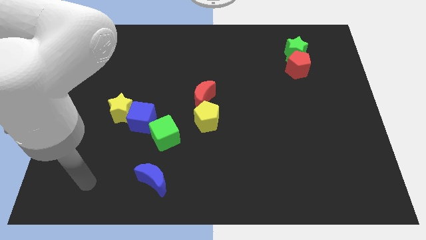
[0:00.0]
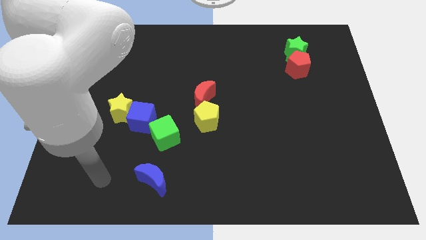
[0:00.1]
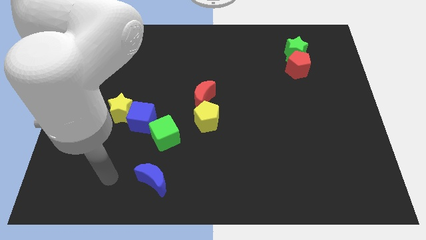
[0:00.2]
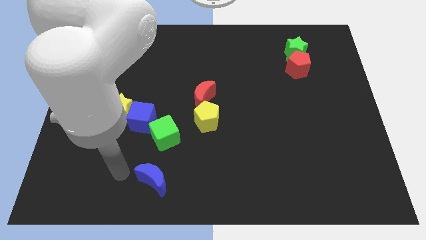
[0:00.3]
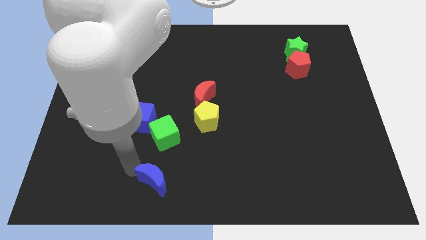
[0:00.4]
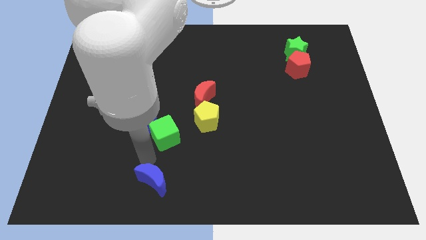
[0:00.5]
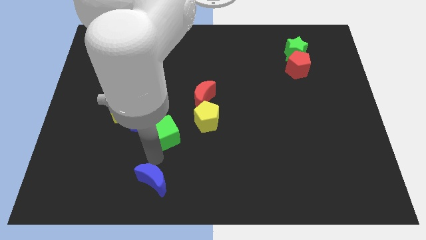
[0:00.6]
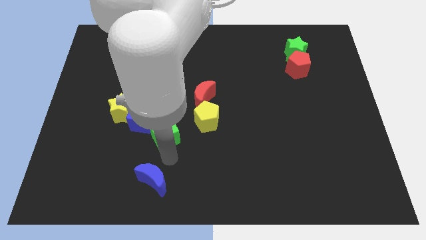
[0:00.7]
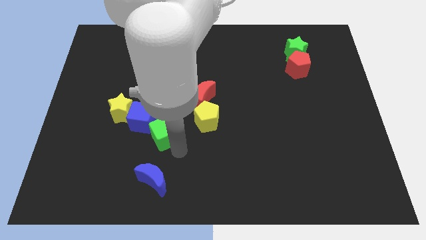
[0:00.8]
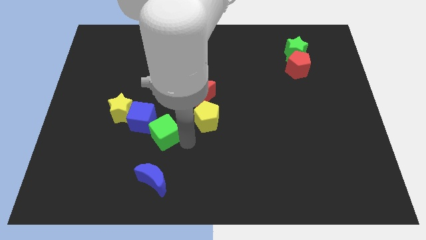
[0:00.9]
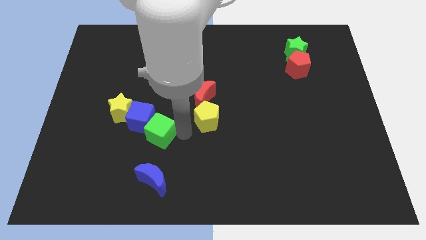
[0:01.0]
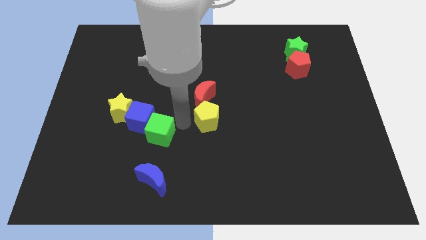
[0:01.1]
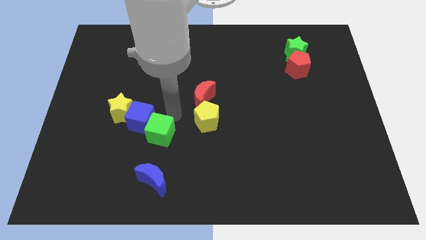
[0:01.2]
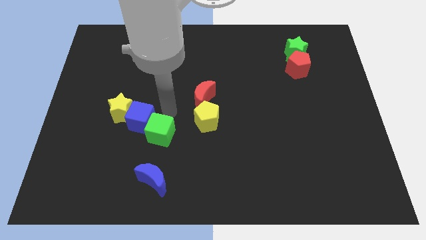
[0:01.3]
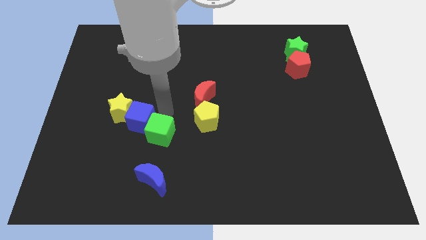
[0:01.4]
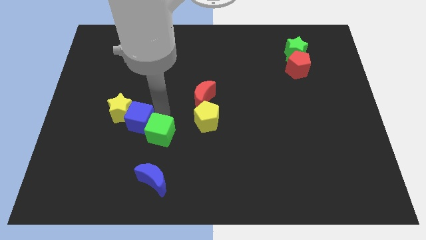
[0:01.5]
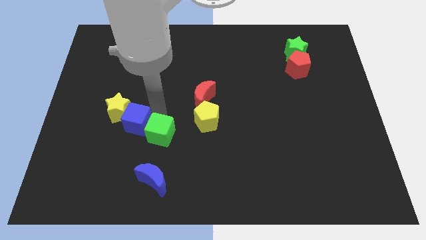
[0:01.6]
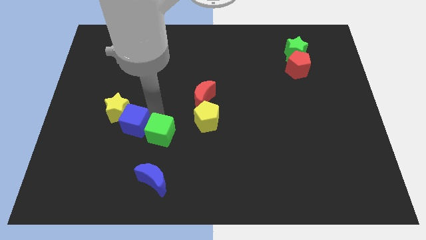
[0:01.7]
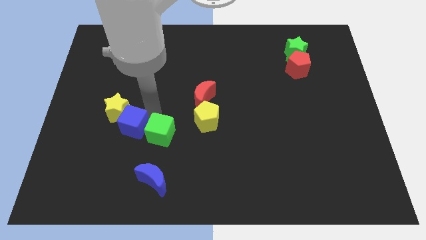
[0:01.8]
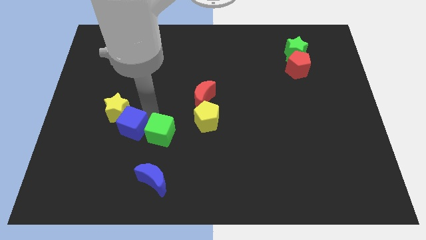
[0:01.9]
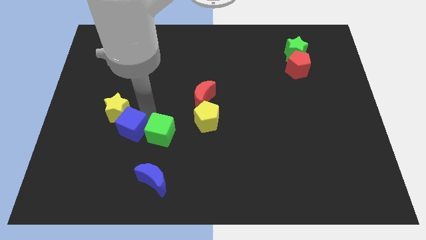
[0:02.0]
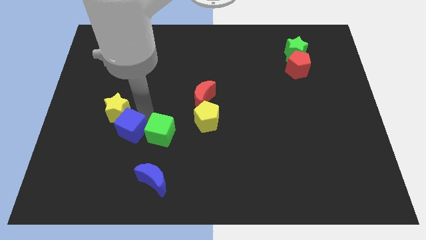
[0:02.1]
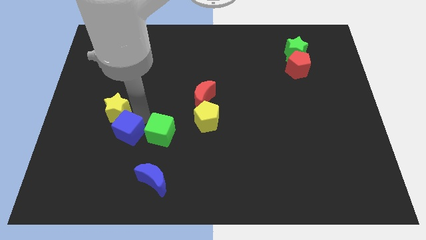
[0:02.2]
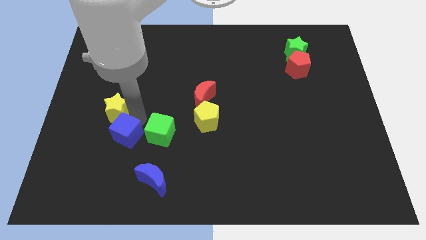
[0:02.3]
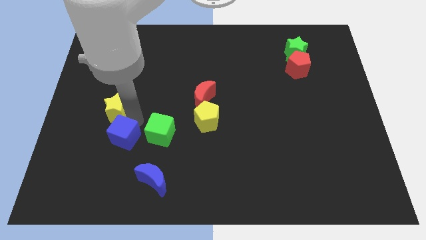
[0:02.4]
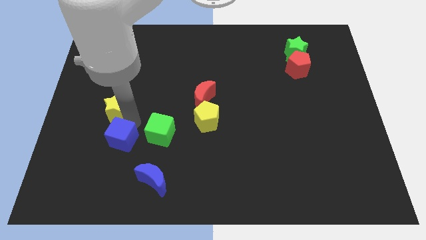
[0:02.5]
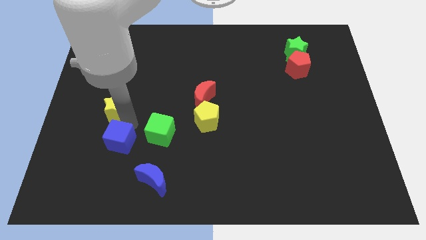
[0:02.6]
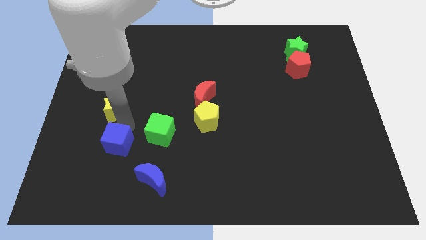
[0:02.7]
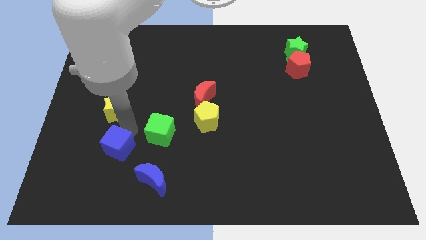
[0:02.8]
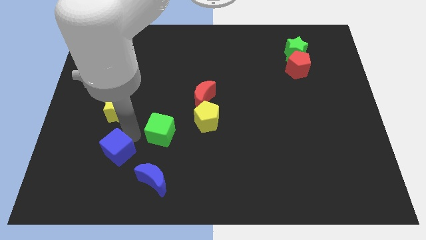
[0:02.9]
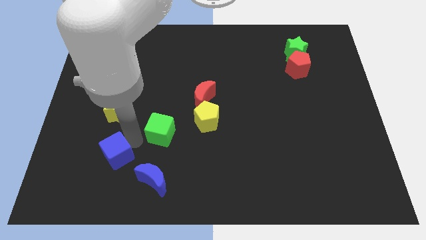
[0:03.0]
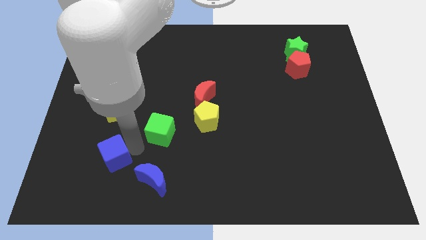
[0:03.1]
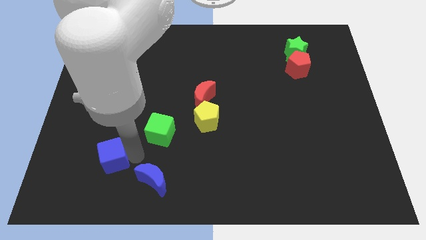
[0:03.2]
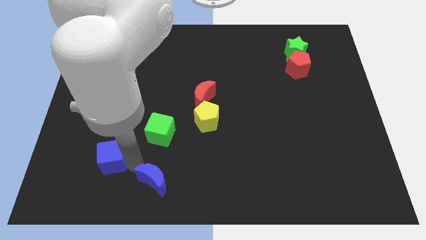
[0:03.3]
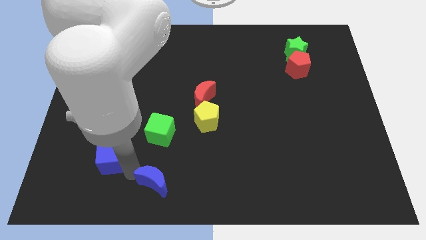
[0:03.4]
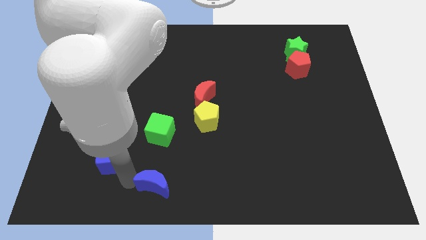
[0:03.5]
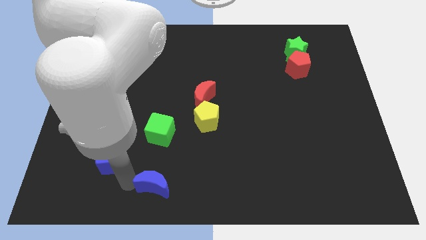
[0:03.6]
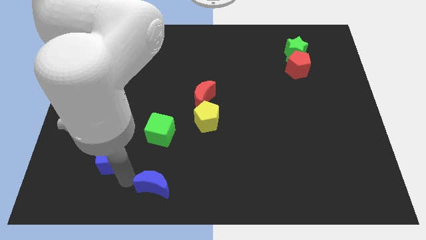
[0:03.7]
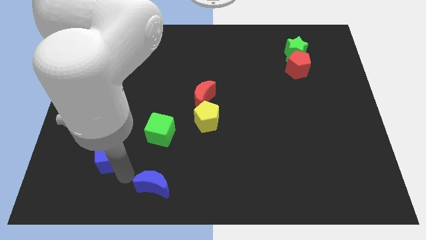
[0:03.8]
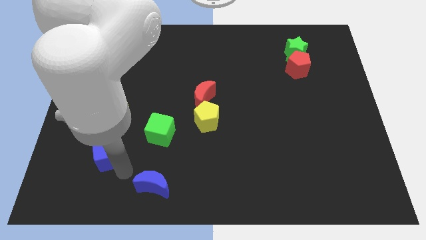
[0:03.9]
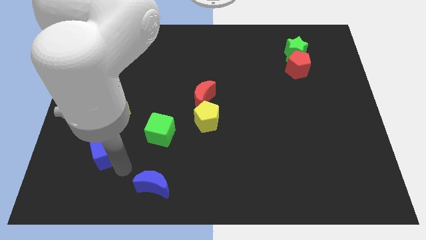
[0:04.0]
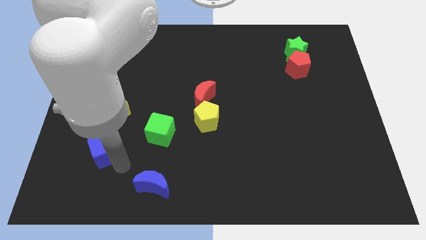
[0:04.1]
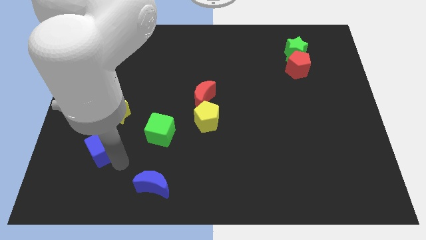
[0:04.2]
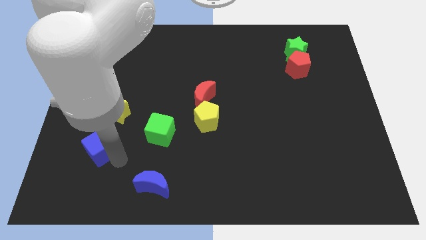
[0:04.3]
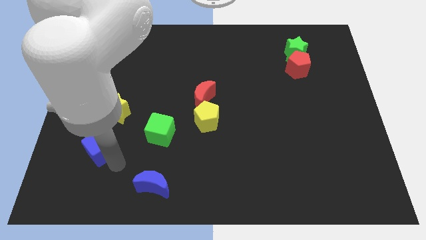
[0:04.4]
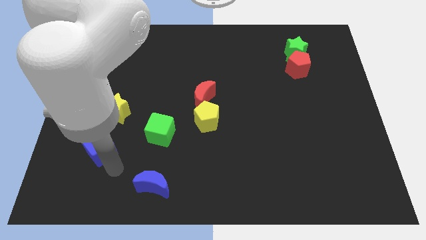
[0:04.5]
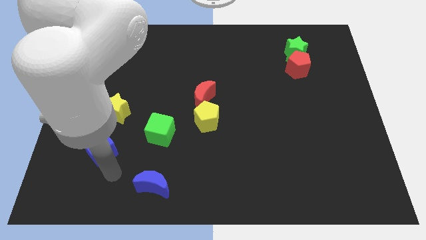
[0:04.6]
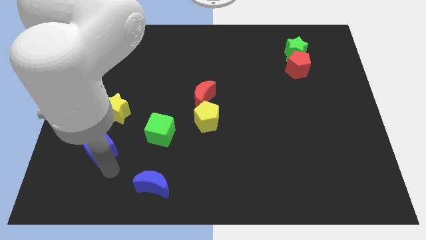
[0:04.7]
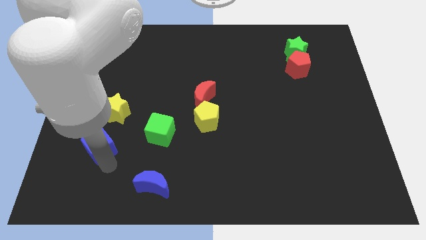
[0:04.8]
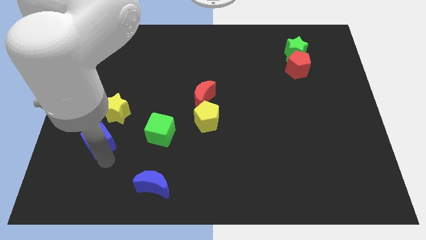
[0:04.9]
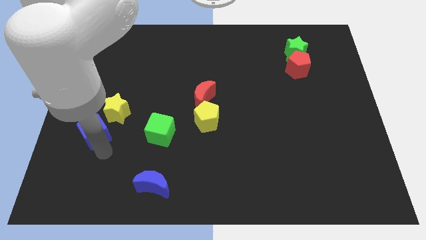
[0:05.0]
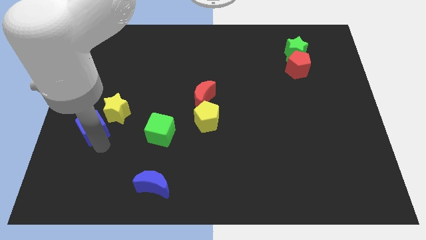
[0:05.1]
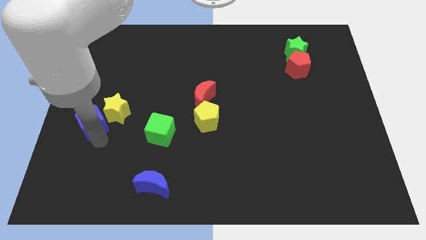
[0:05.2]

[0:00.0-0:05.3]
push the blue cube to the left side

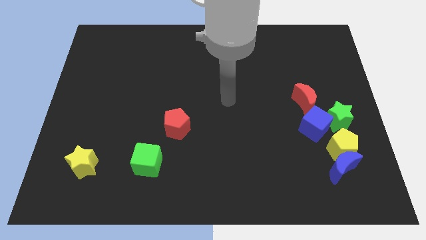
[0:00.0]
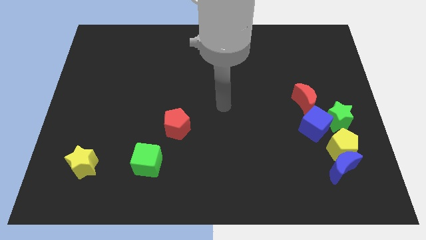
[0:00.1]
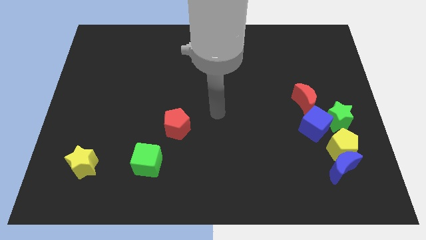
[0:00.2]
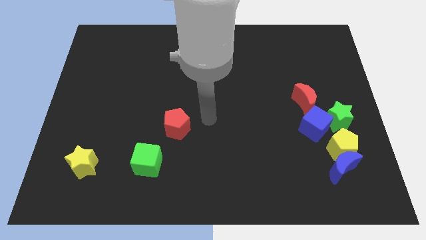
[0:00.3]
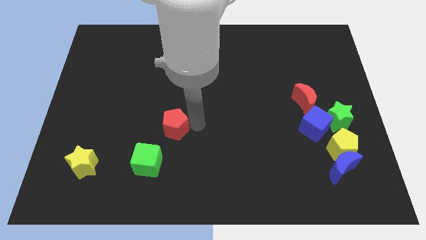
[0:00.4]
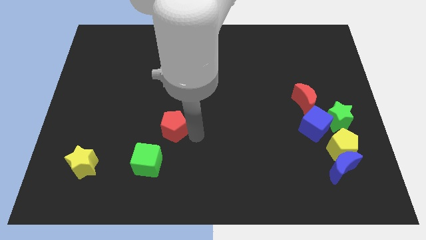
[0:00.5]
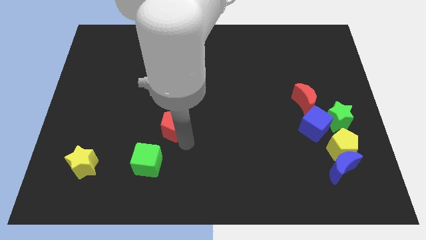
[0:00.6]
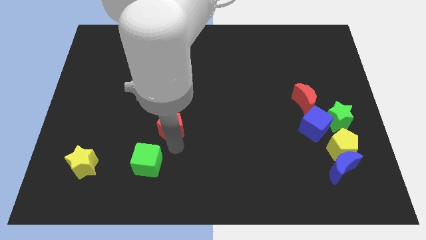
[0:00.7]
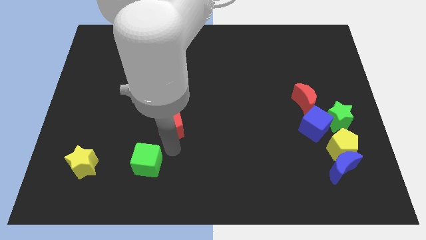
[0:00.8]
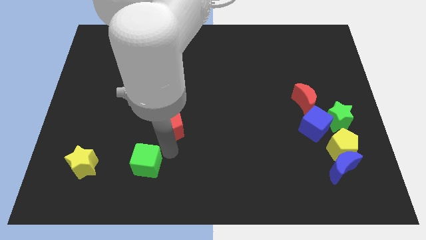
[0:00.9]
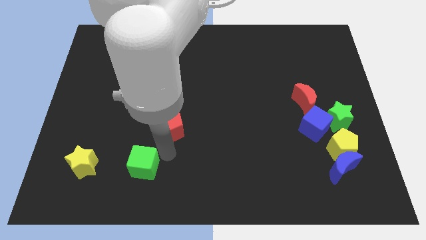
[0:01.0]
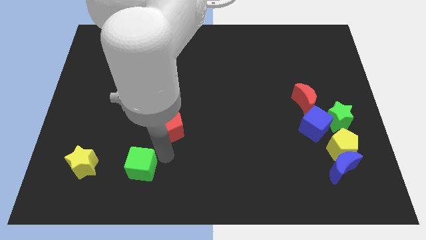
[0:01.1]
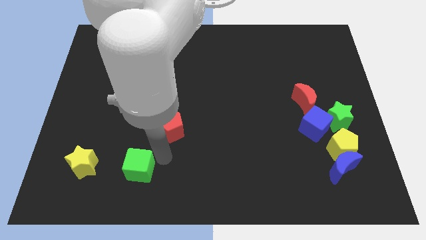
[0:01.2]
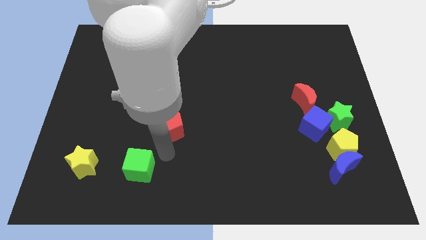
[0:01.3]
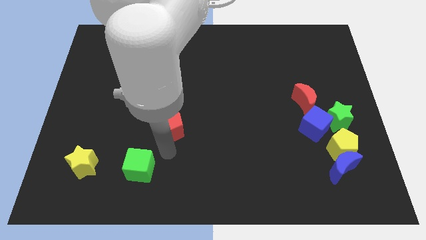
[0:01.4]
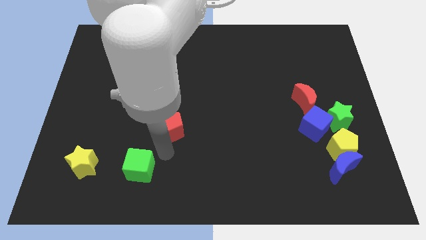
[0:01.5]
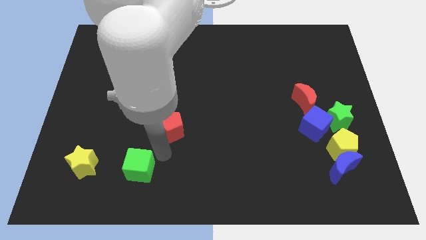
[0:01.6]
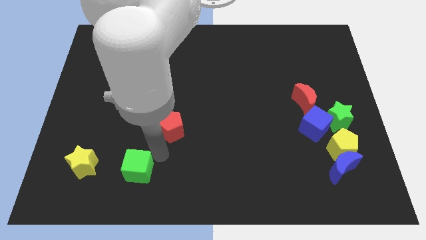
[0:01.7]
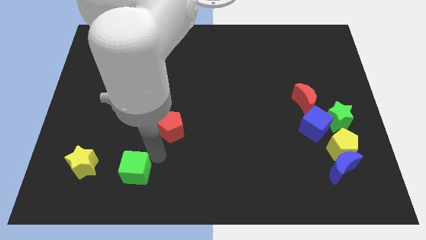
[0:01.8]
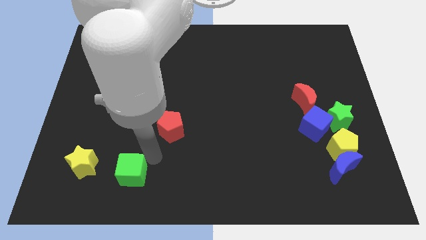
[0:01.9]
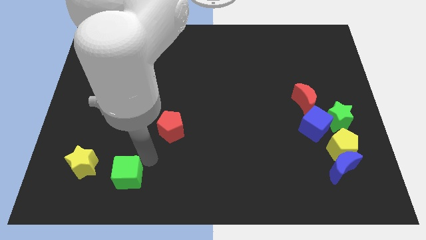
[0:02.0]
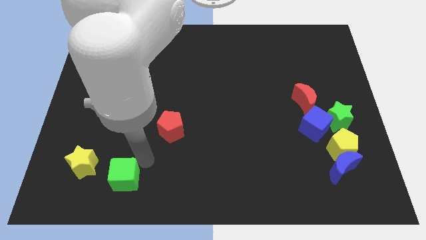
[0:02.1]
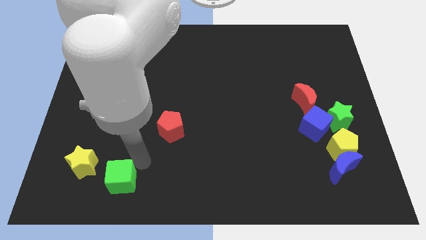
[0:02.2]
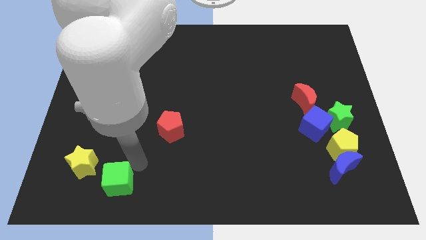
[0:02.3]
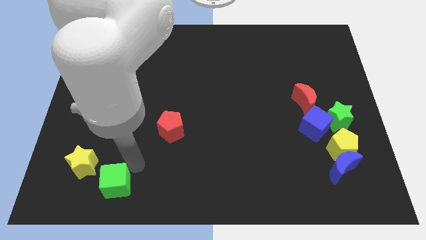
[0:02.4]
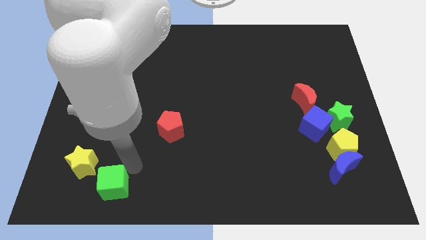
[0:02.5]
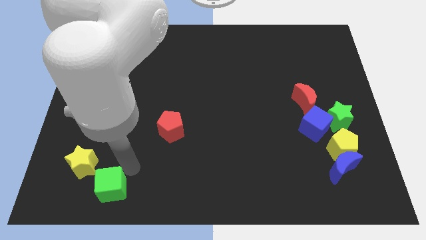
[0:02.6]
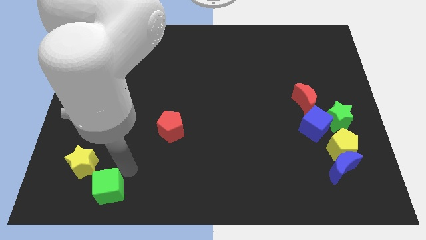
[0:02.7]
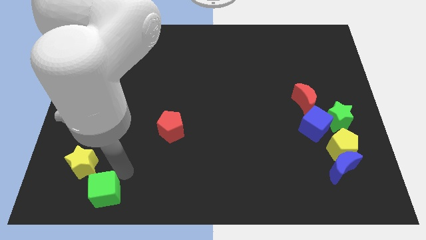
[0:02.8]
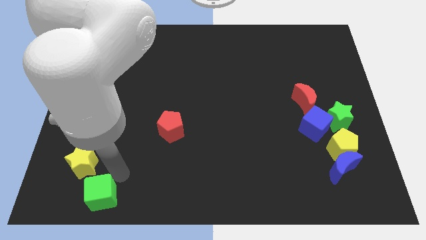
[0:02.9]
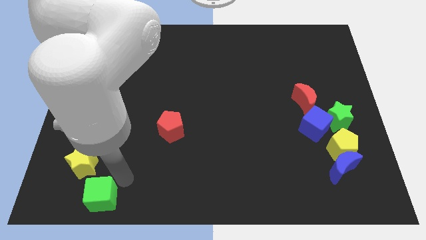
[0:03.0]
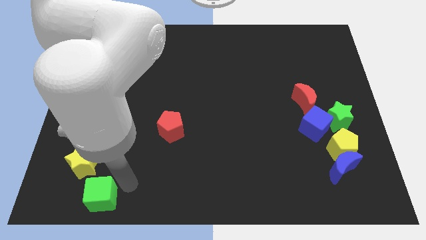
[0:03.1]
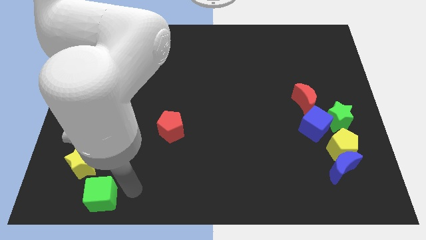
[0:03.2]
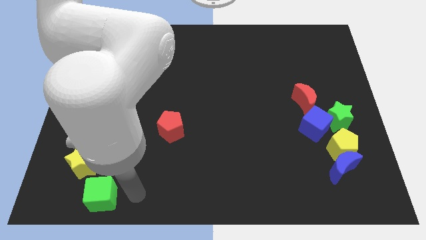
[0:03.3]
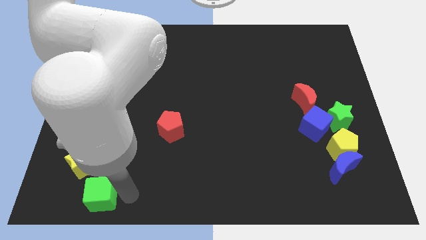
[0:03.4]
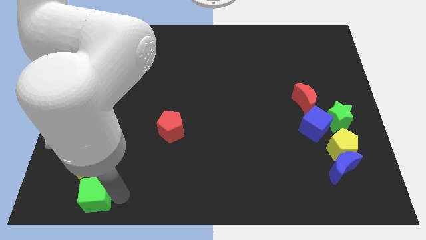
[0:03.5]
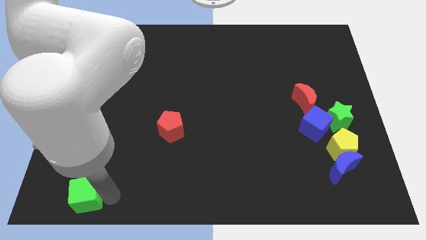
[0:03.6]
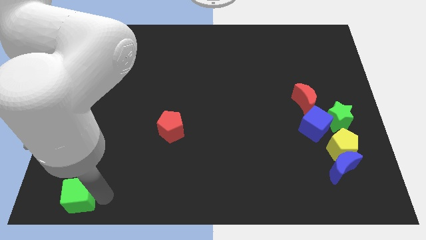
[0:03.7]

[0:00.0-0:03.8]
move the green cube to the bottom left
